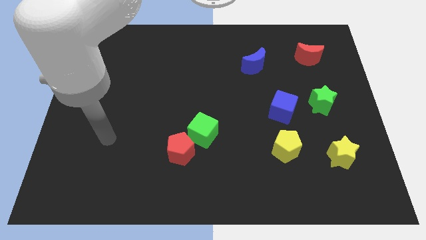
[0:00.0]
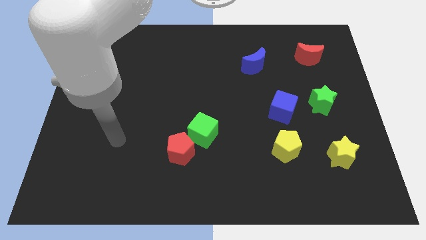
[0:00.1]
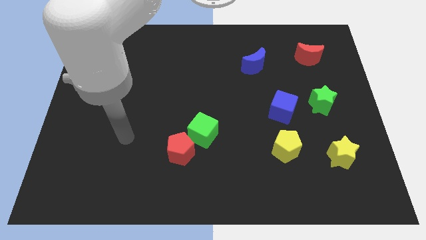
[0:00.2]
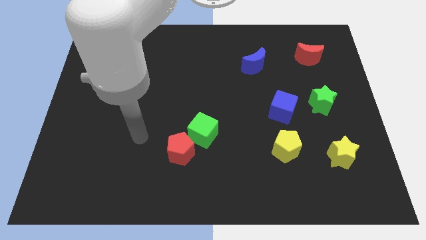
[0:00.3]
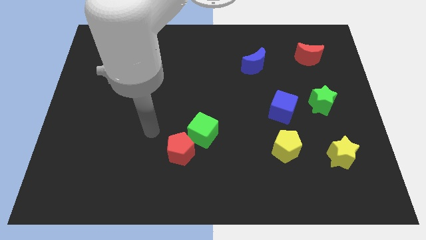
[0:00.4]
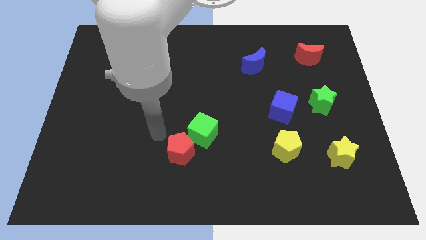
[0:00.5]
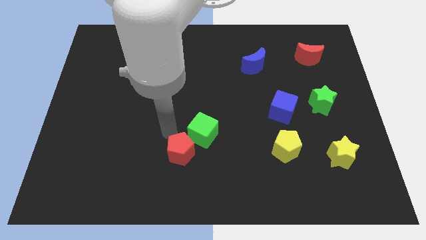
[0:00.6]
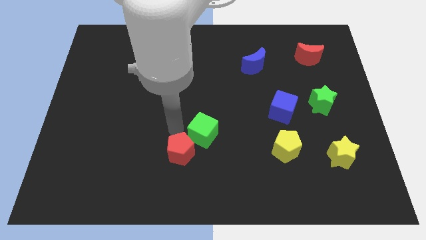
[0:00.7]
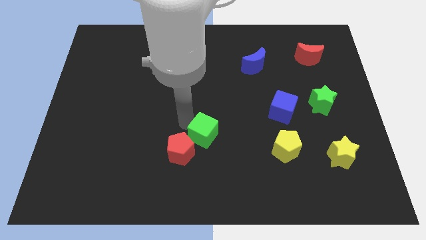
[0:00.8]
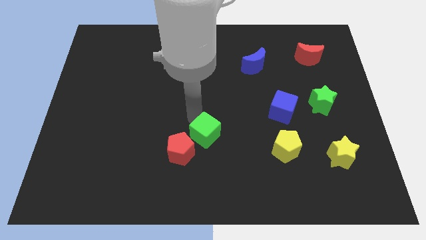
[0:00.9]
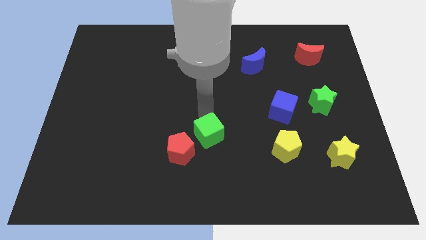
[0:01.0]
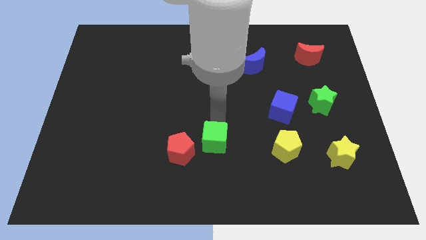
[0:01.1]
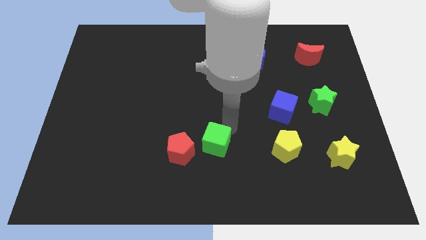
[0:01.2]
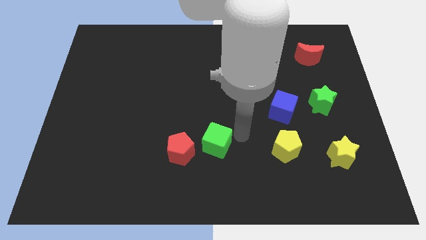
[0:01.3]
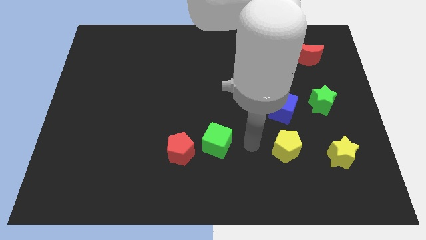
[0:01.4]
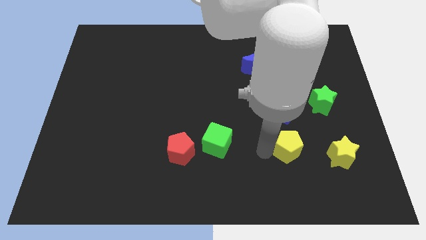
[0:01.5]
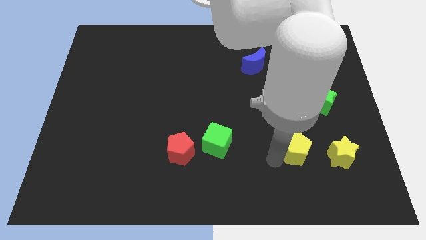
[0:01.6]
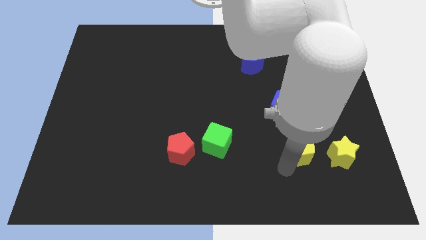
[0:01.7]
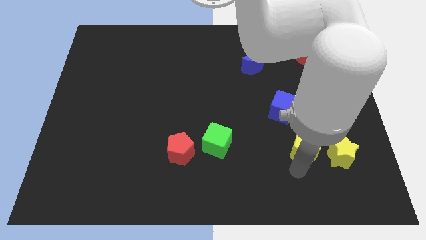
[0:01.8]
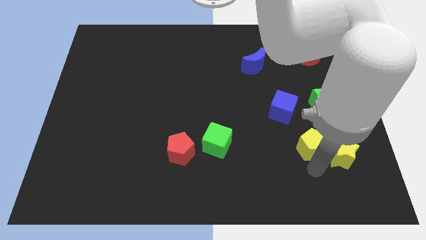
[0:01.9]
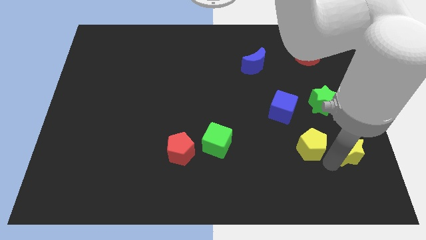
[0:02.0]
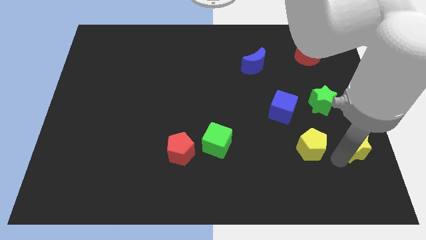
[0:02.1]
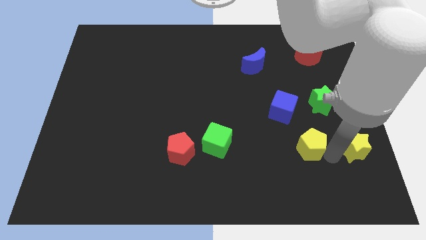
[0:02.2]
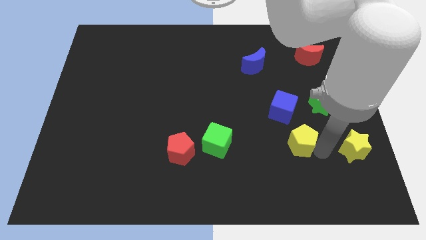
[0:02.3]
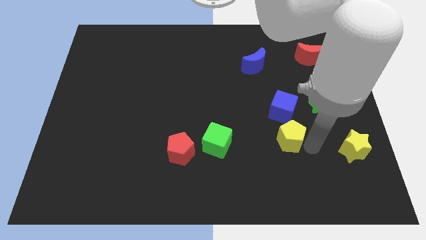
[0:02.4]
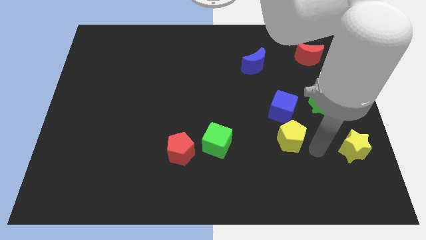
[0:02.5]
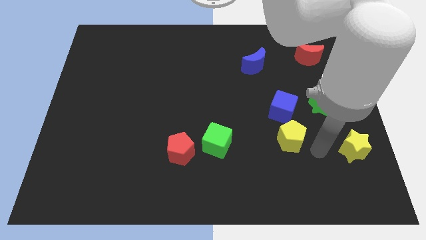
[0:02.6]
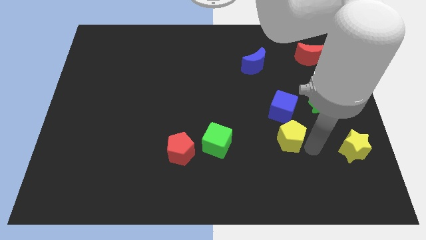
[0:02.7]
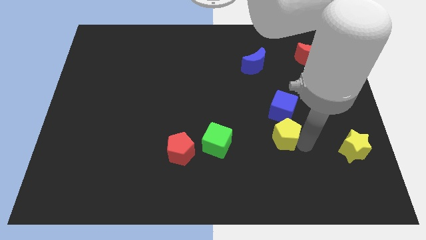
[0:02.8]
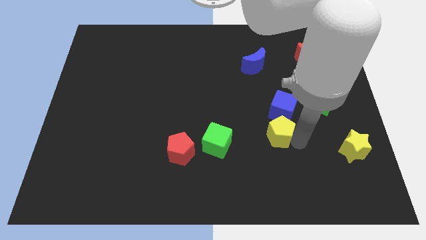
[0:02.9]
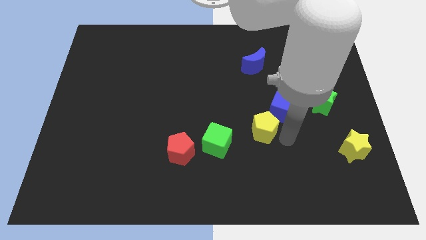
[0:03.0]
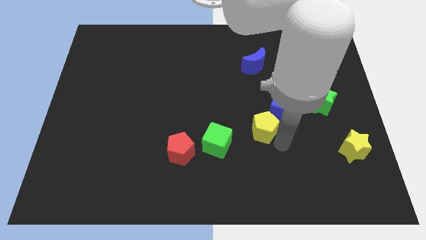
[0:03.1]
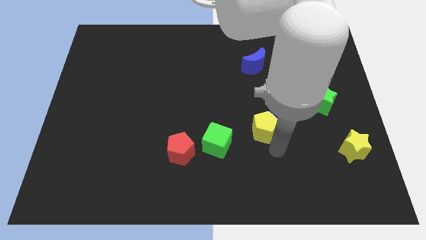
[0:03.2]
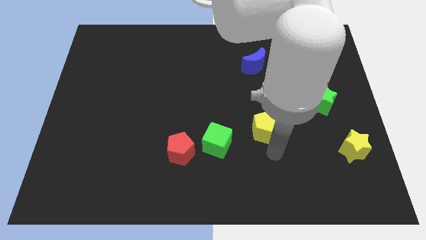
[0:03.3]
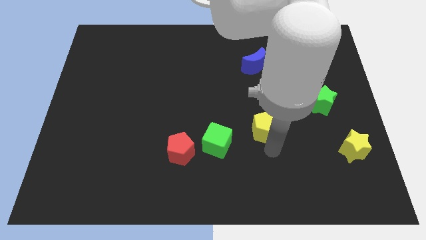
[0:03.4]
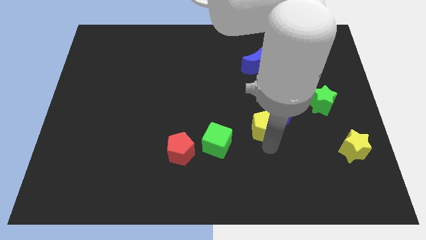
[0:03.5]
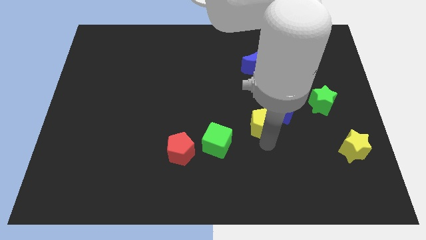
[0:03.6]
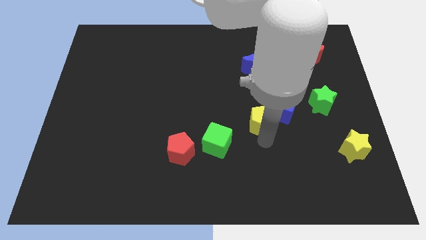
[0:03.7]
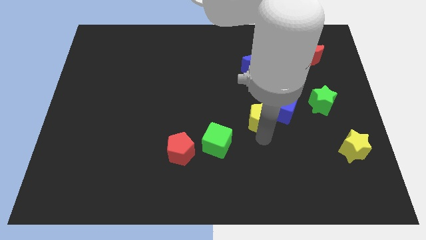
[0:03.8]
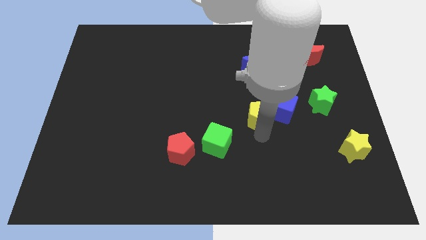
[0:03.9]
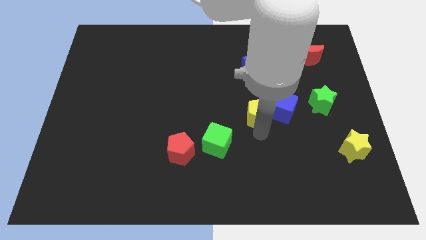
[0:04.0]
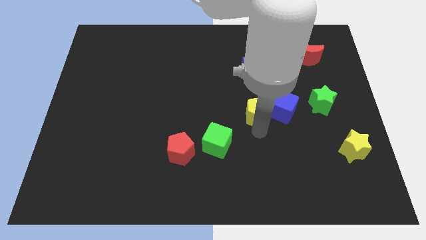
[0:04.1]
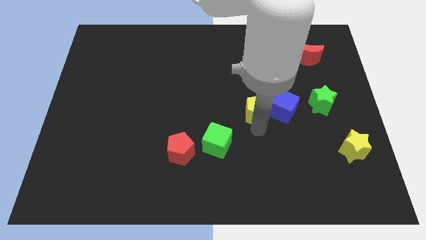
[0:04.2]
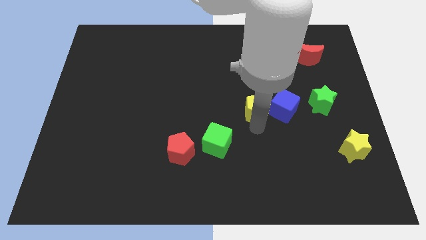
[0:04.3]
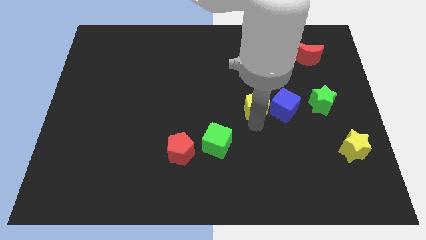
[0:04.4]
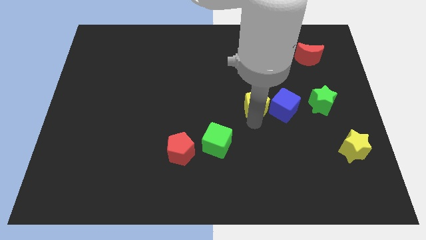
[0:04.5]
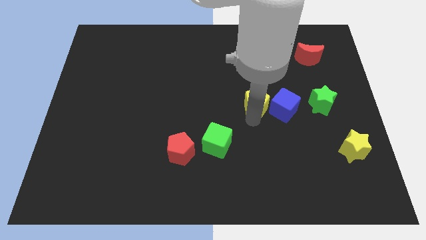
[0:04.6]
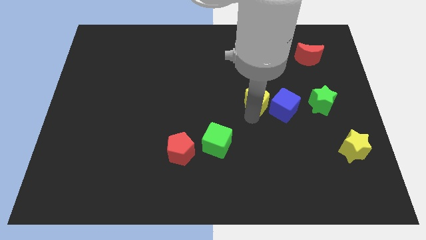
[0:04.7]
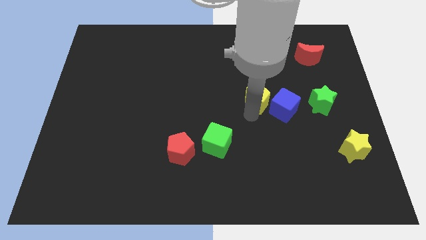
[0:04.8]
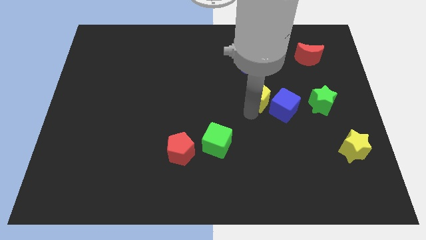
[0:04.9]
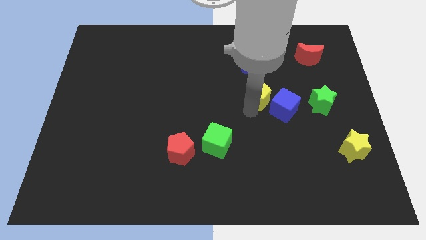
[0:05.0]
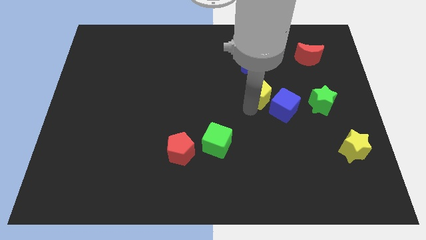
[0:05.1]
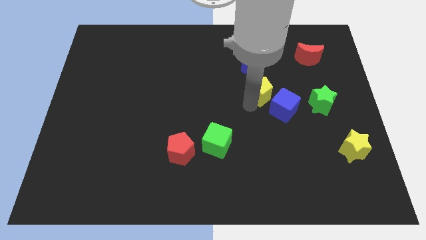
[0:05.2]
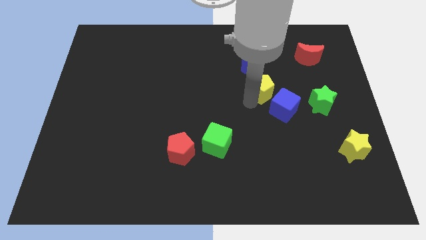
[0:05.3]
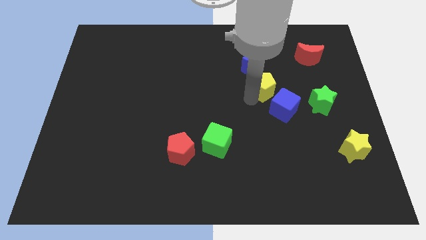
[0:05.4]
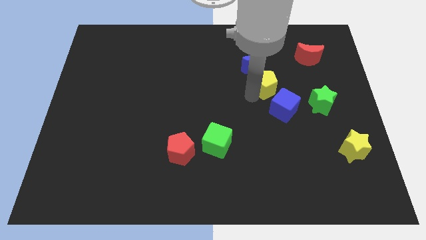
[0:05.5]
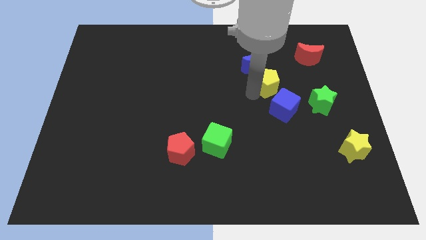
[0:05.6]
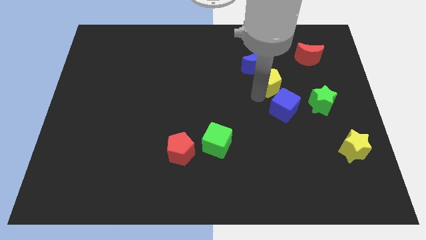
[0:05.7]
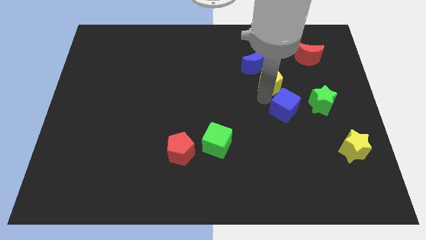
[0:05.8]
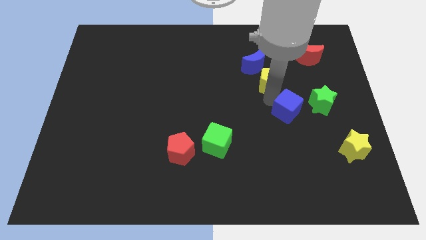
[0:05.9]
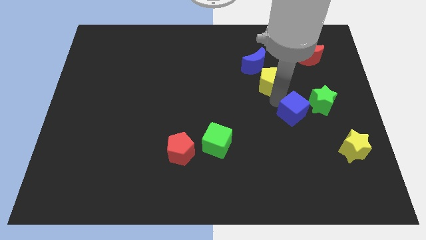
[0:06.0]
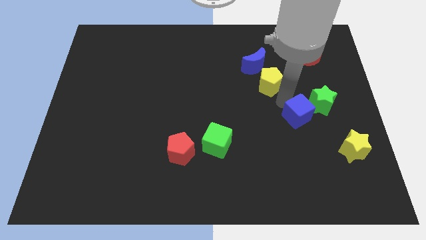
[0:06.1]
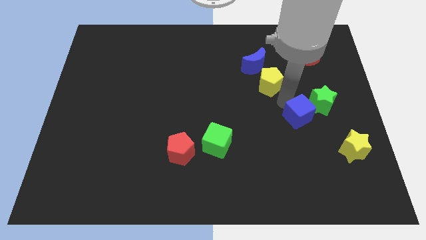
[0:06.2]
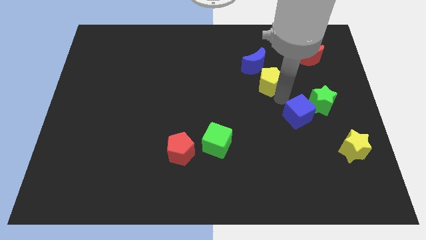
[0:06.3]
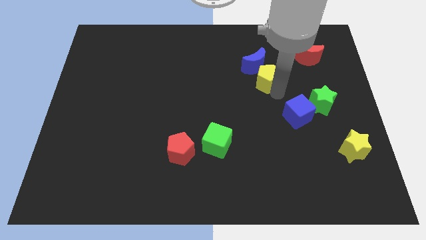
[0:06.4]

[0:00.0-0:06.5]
slide the yellow pentagon to the blue moon

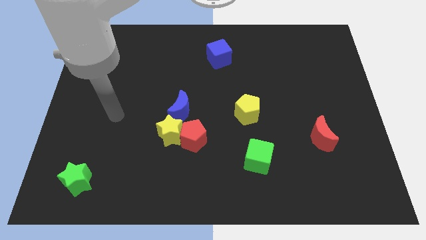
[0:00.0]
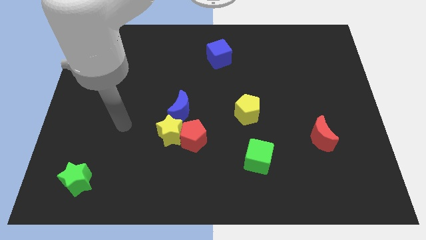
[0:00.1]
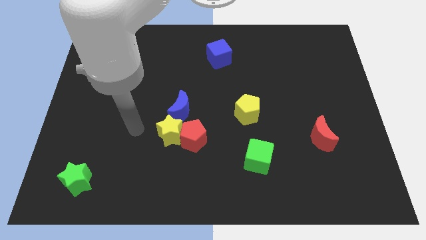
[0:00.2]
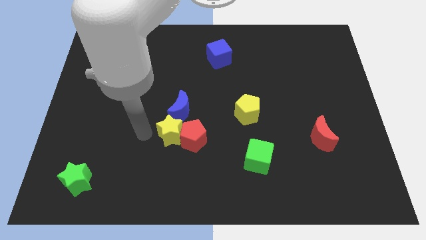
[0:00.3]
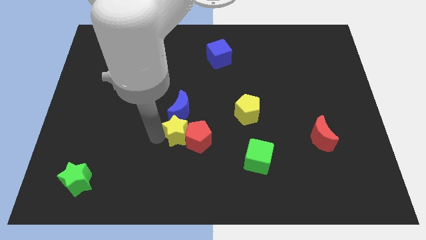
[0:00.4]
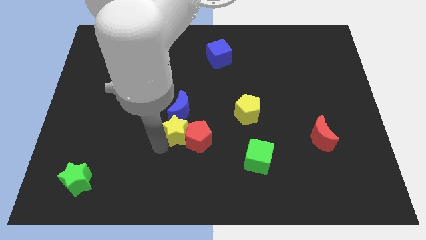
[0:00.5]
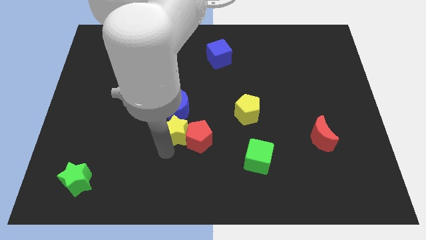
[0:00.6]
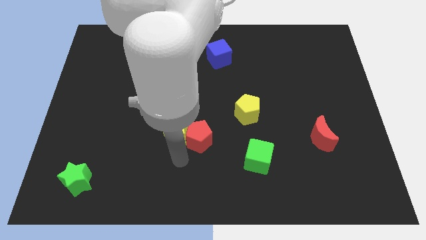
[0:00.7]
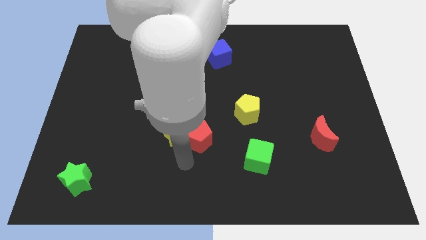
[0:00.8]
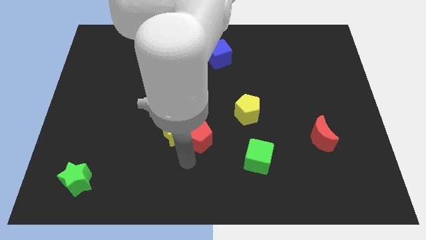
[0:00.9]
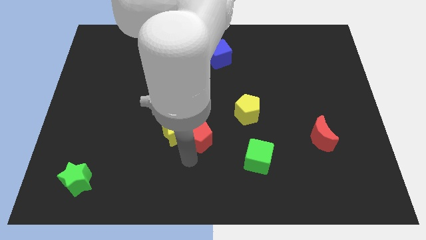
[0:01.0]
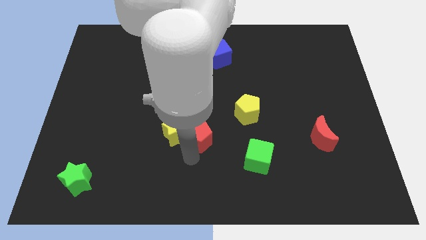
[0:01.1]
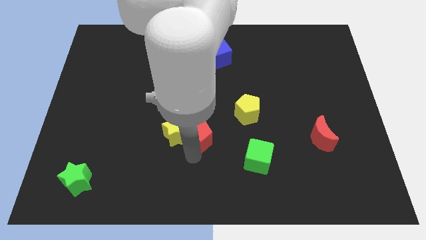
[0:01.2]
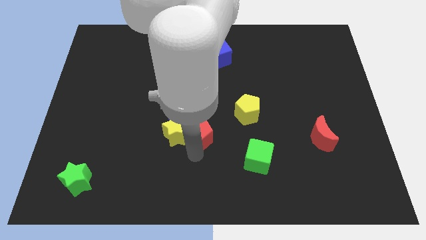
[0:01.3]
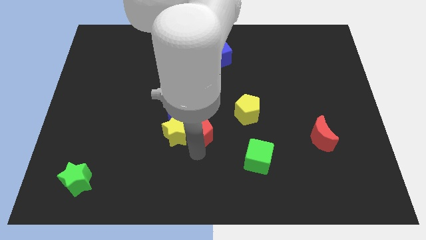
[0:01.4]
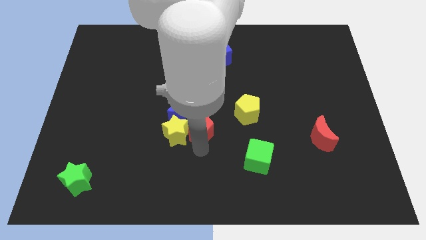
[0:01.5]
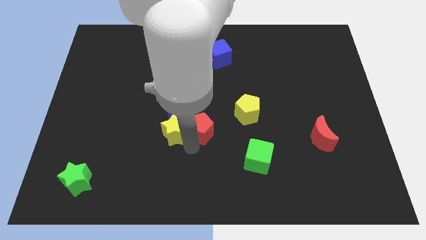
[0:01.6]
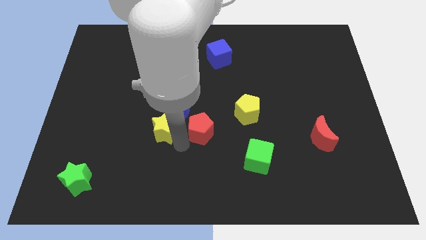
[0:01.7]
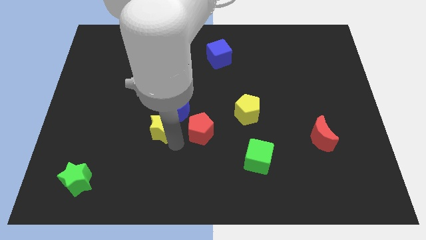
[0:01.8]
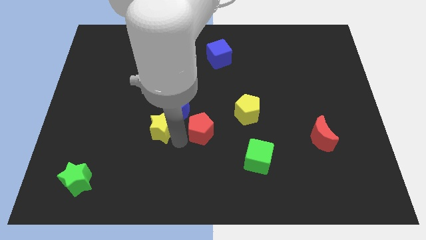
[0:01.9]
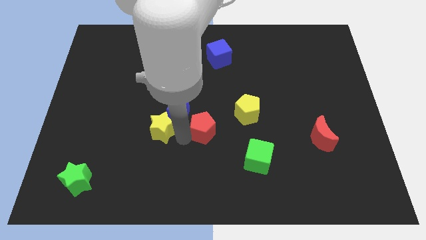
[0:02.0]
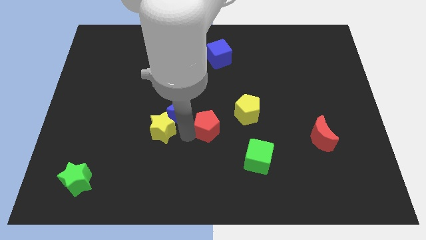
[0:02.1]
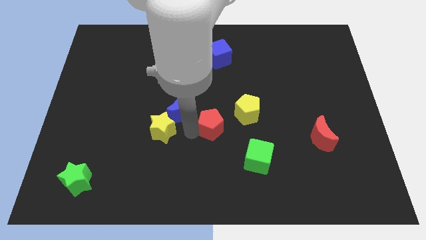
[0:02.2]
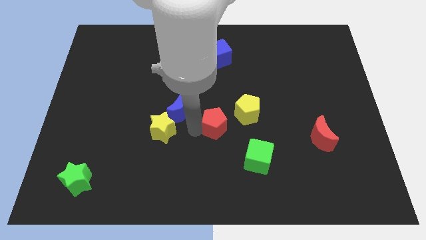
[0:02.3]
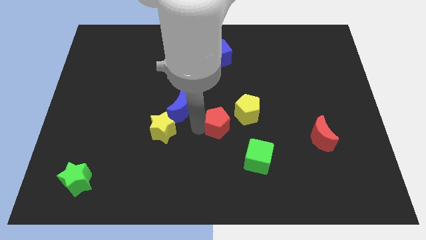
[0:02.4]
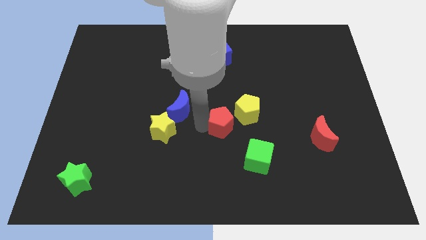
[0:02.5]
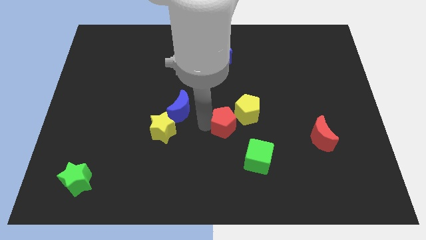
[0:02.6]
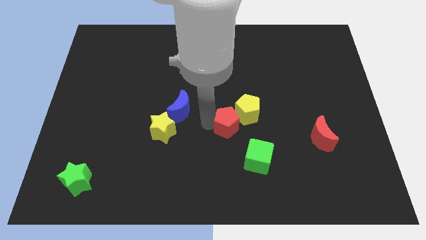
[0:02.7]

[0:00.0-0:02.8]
put the red pentagon to the yellow pentagon
